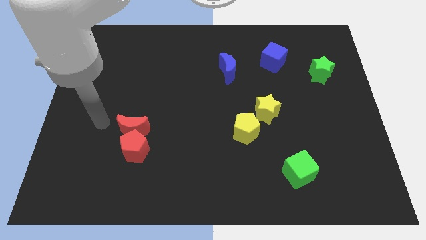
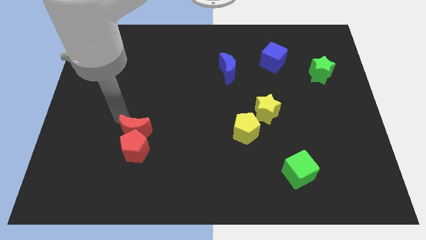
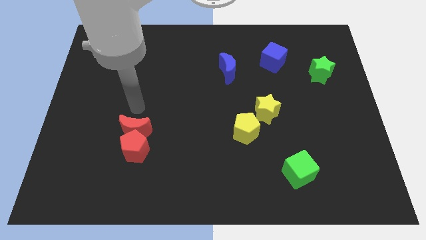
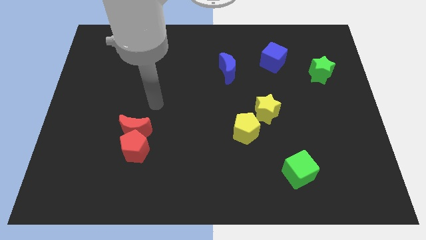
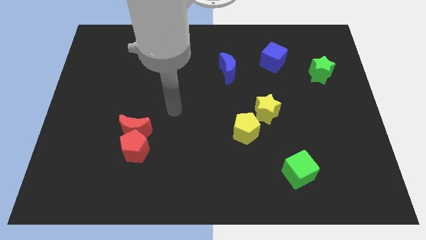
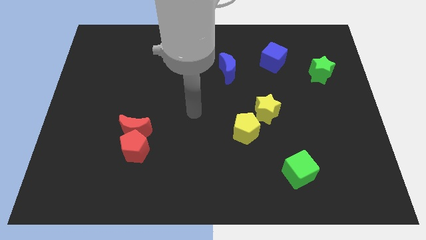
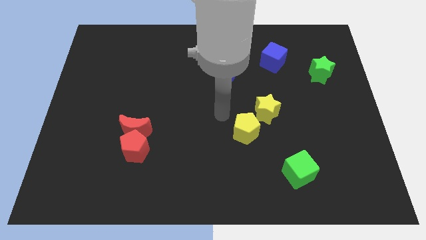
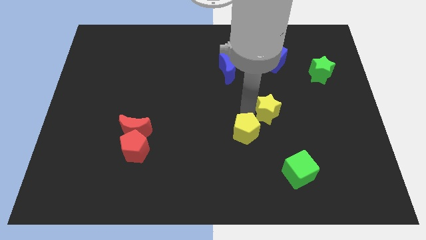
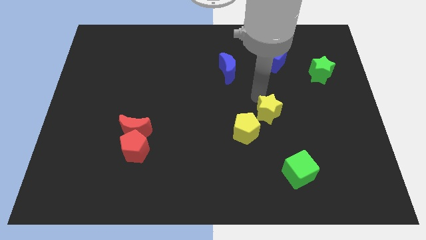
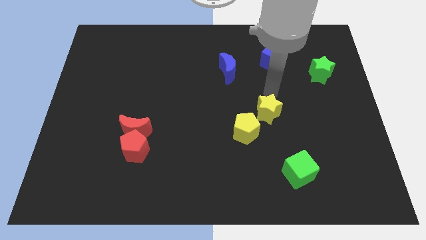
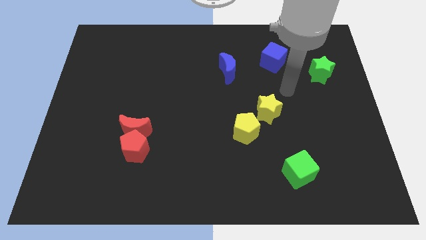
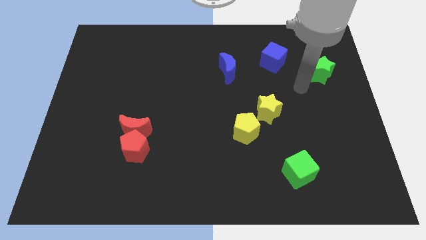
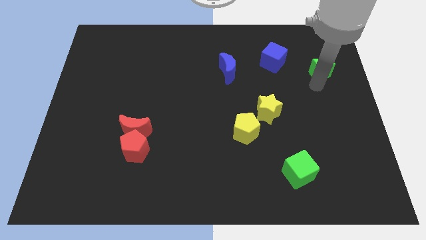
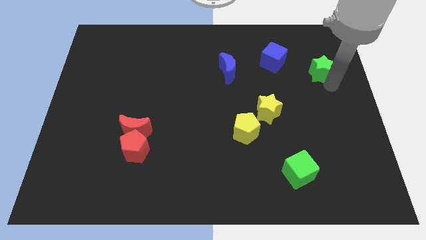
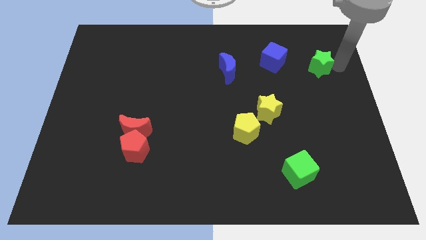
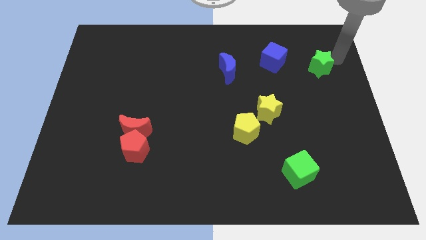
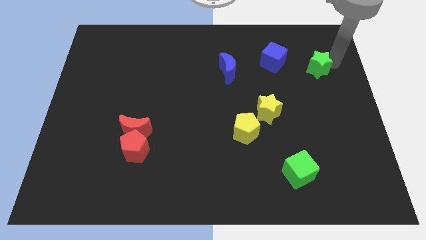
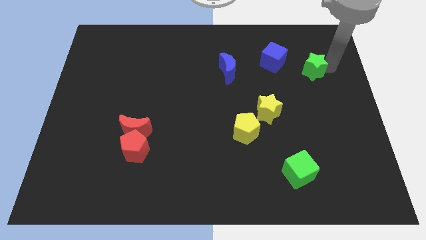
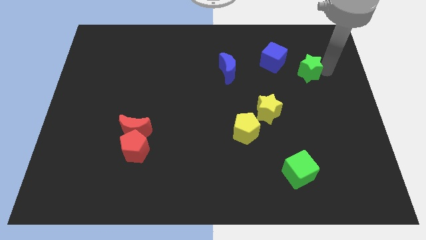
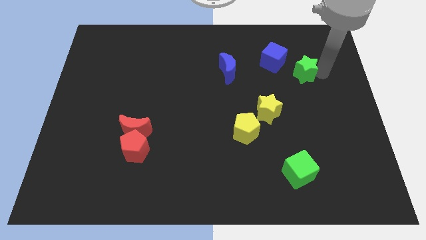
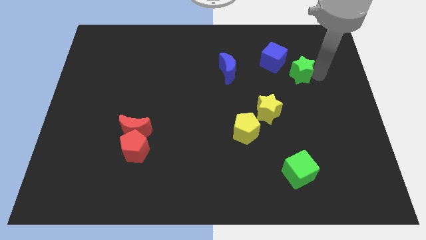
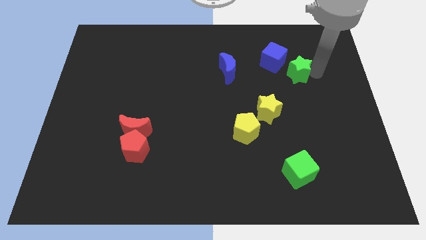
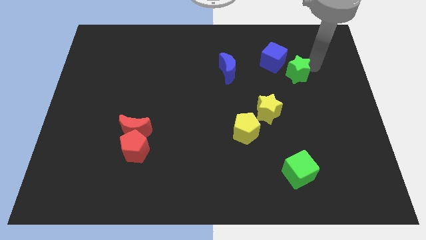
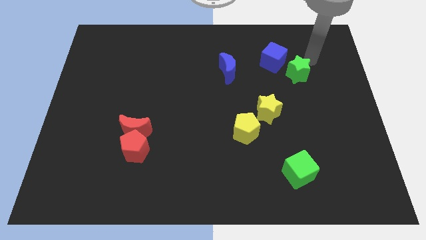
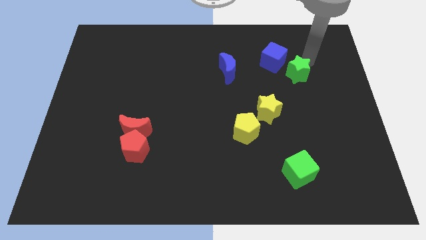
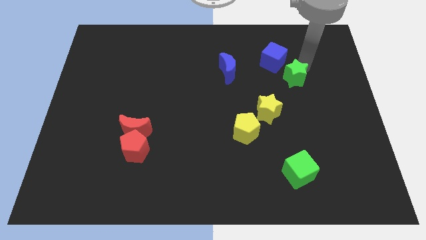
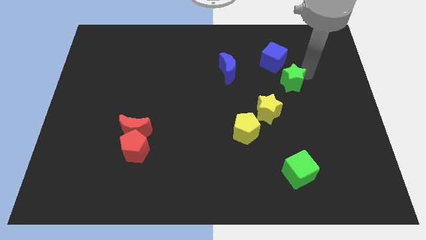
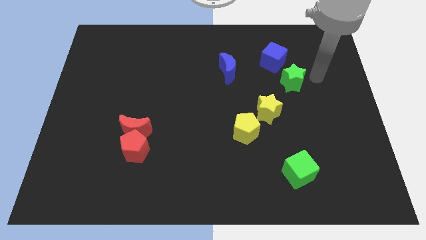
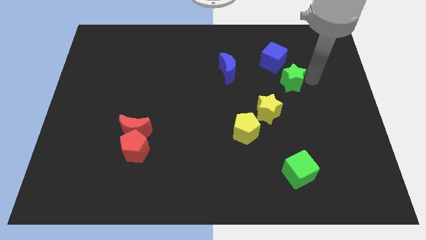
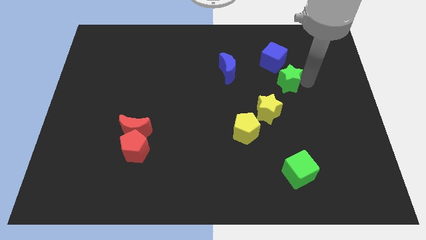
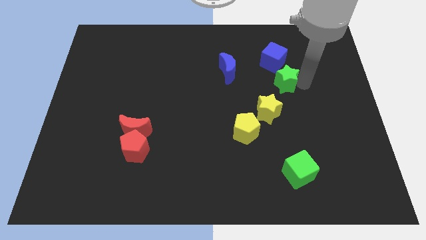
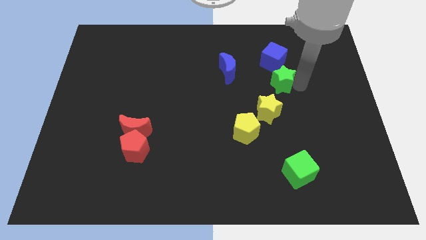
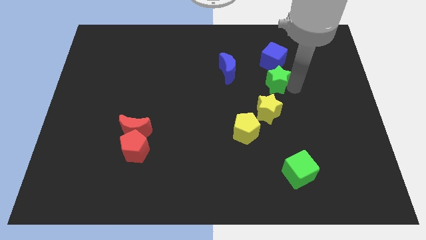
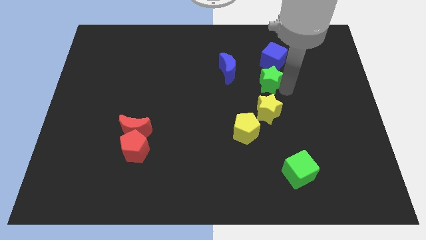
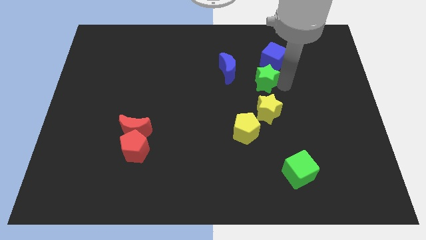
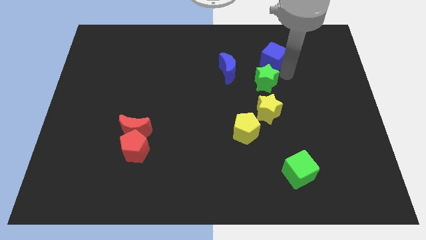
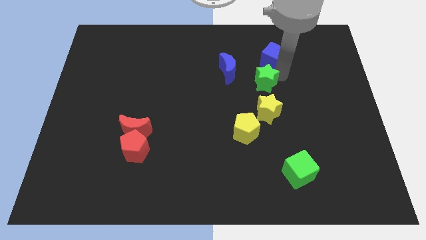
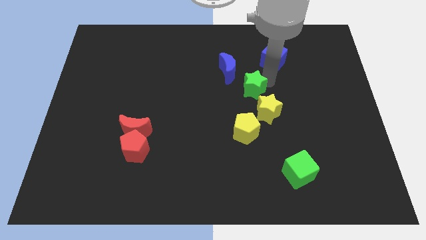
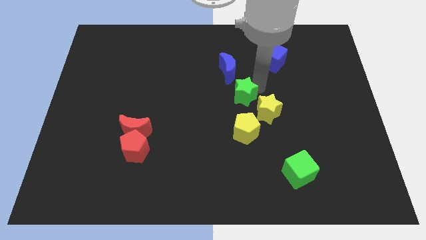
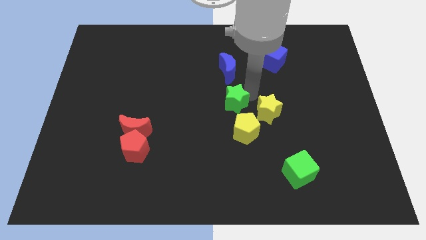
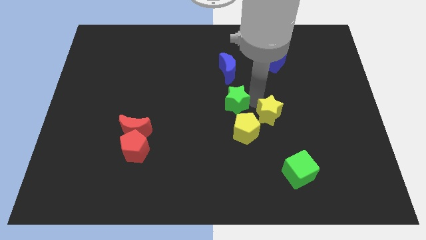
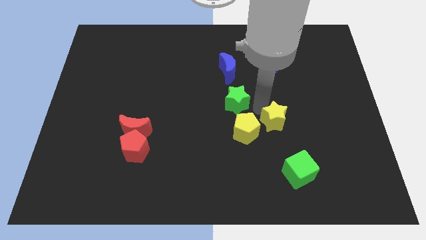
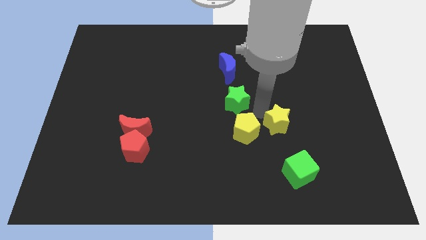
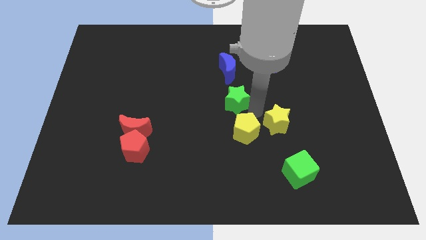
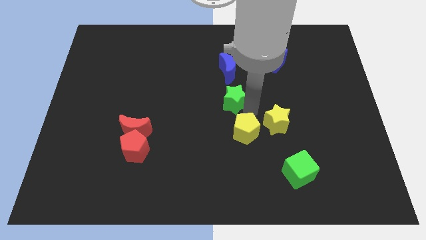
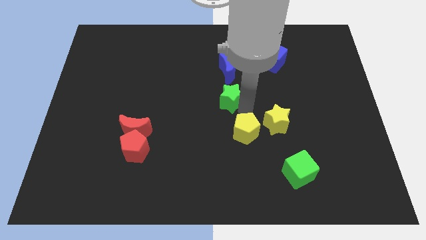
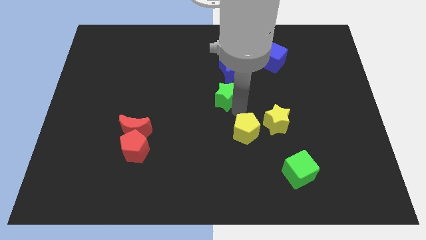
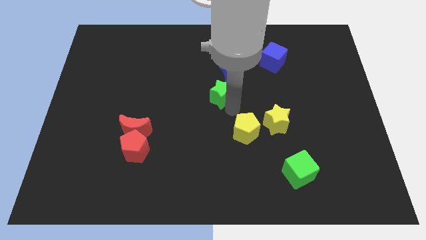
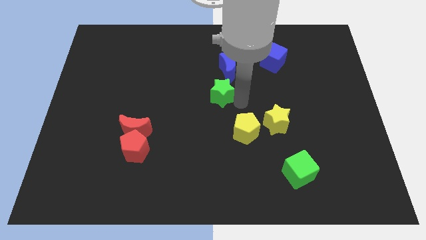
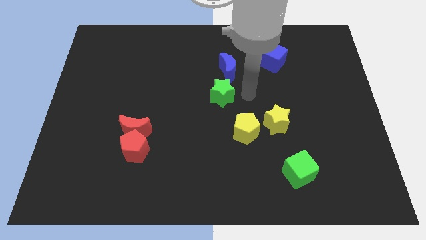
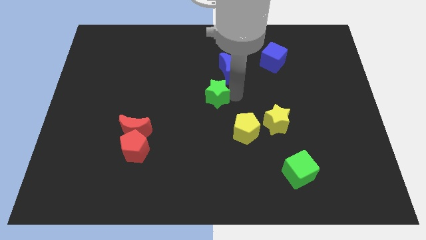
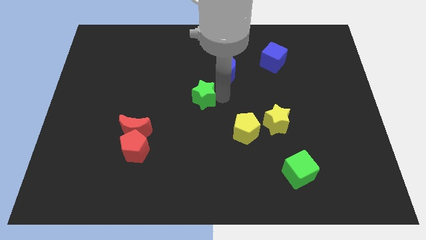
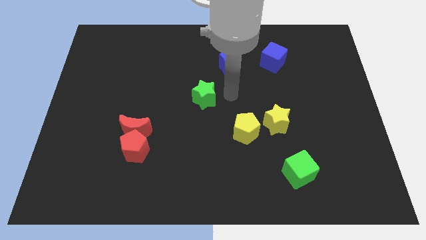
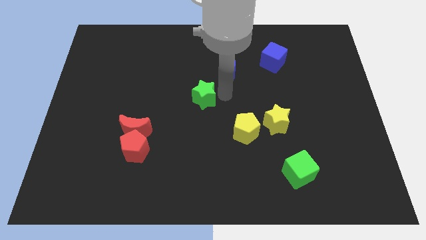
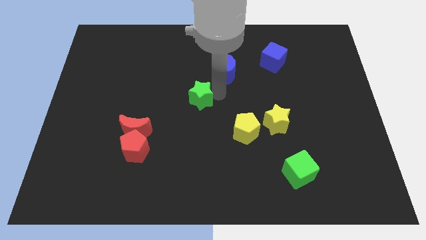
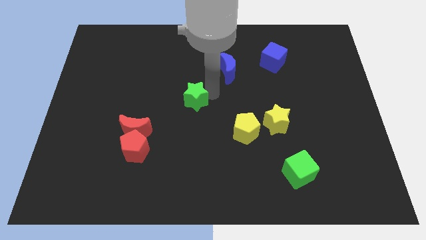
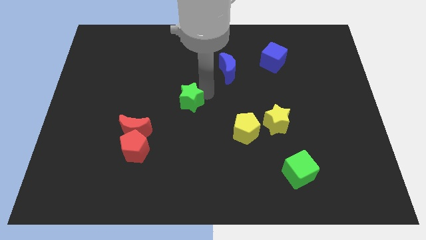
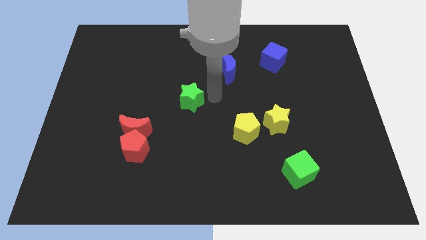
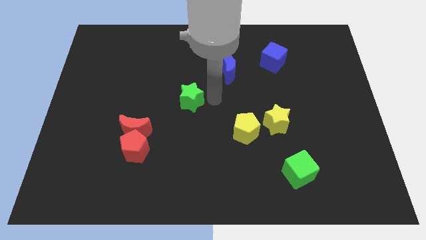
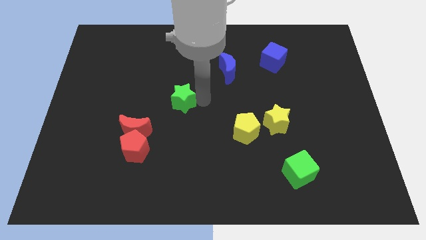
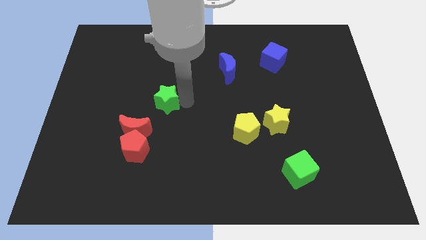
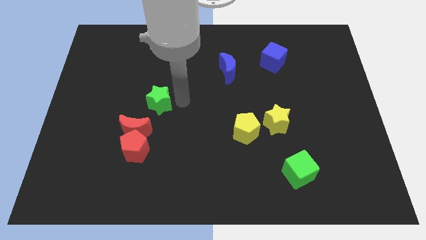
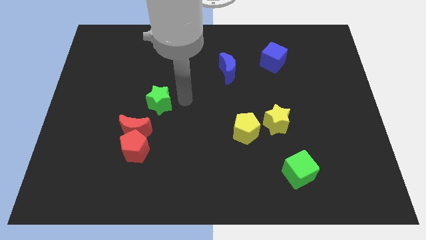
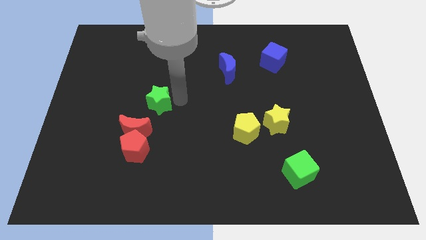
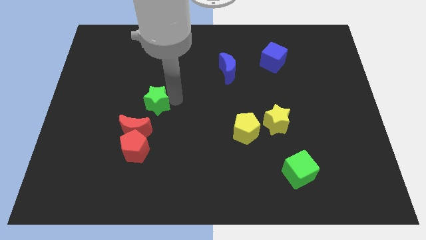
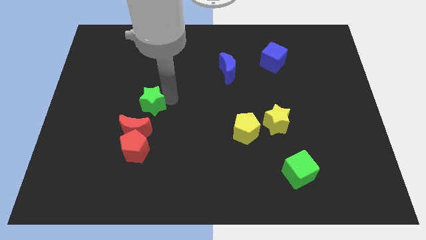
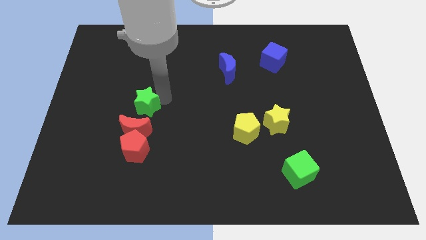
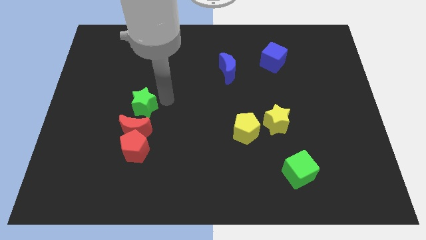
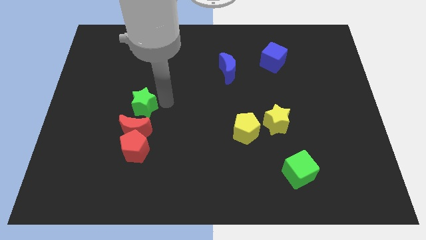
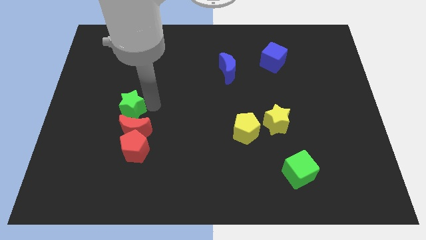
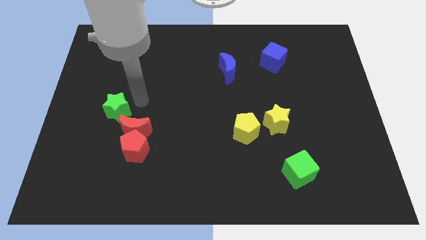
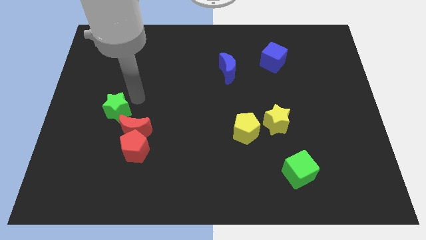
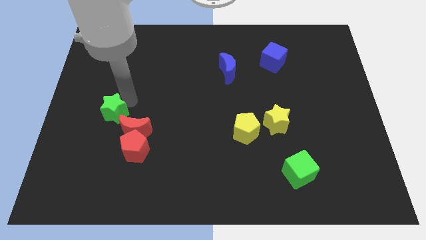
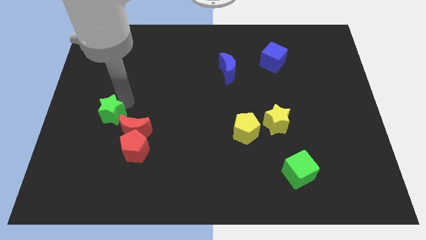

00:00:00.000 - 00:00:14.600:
move the green star to the left side of the red moon
